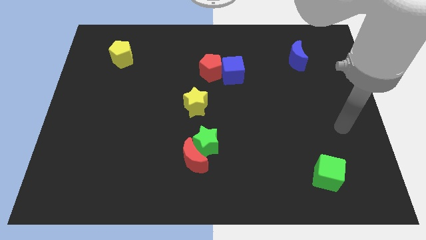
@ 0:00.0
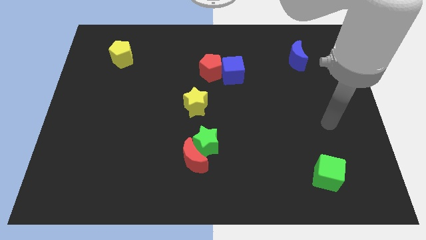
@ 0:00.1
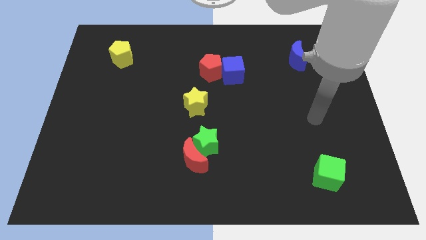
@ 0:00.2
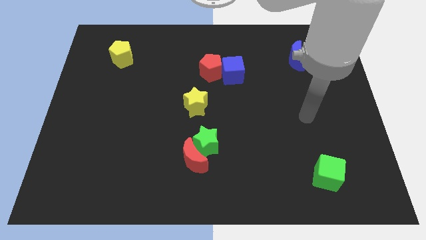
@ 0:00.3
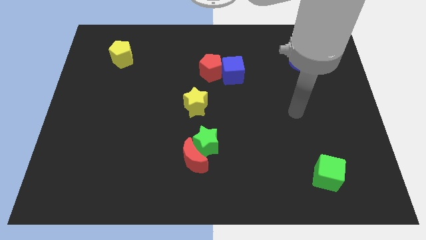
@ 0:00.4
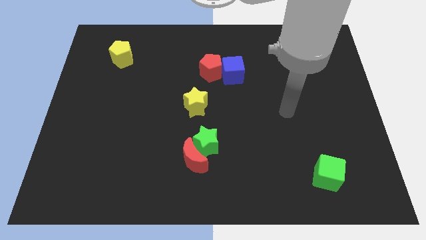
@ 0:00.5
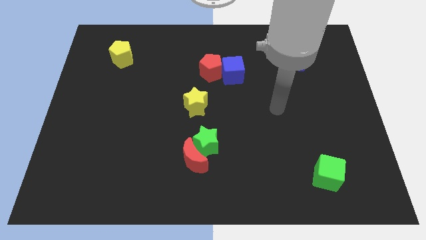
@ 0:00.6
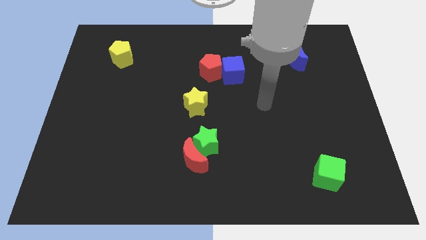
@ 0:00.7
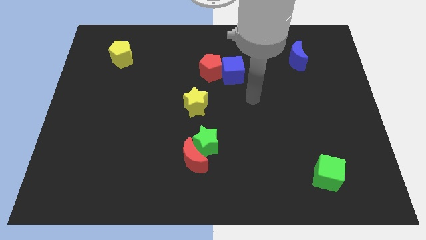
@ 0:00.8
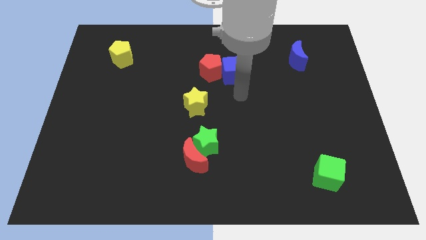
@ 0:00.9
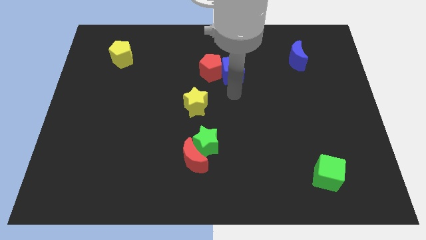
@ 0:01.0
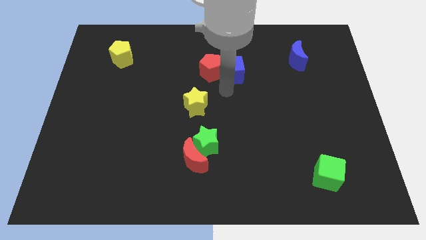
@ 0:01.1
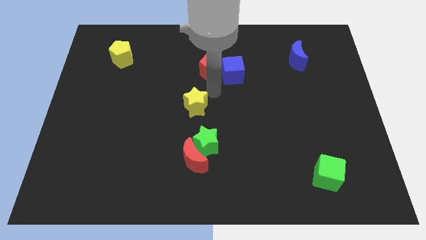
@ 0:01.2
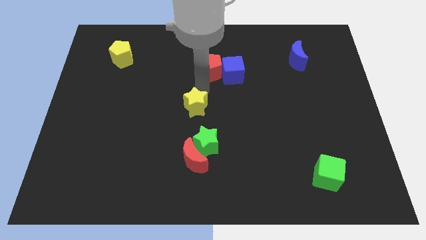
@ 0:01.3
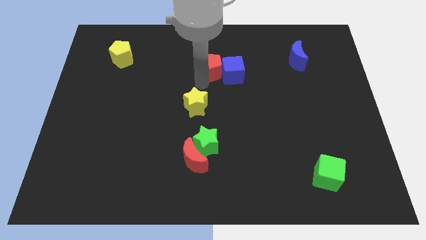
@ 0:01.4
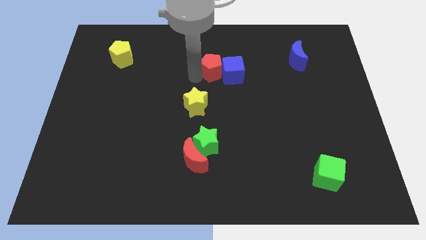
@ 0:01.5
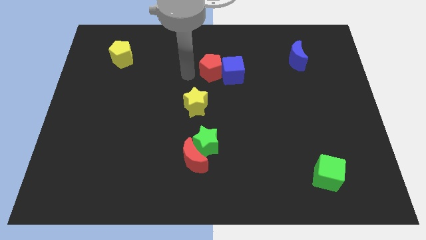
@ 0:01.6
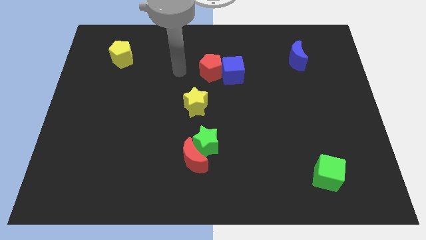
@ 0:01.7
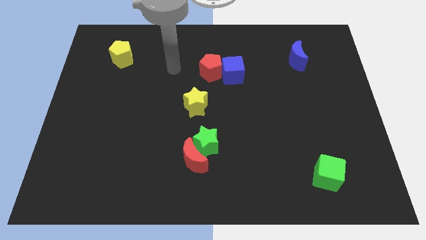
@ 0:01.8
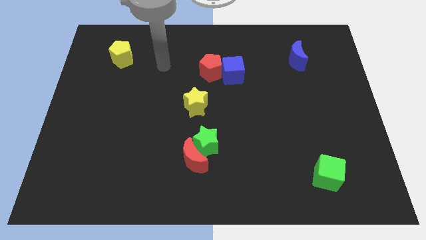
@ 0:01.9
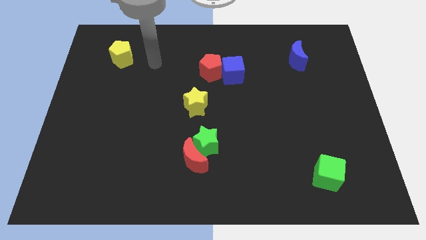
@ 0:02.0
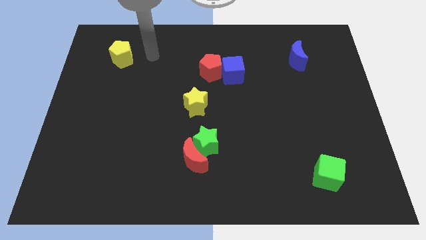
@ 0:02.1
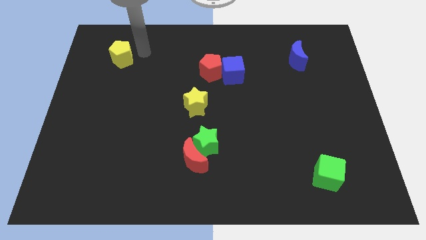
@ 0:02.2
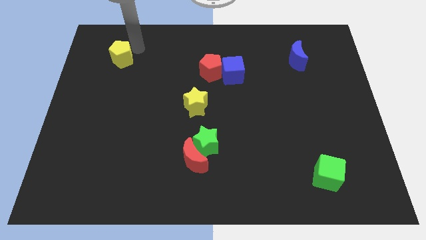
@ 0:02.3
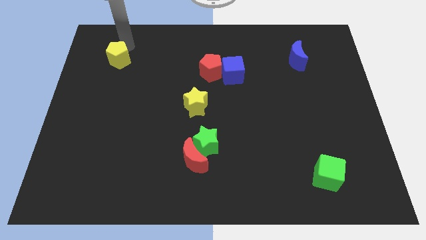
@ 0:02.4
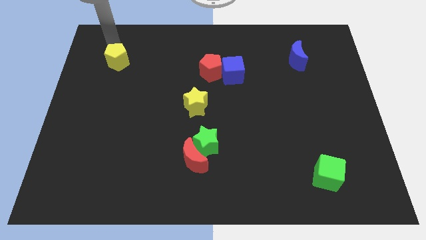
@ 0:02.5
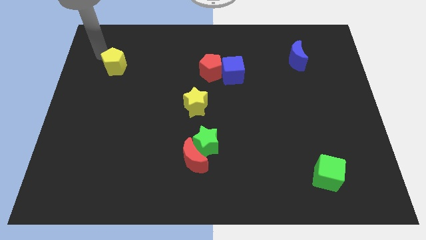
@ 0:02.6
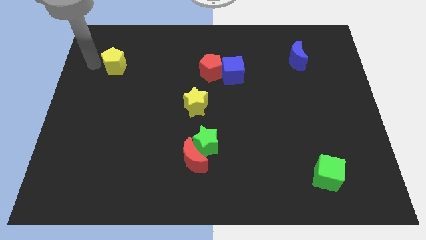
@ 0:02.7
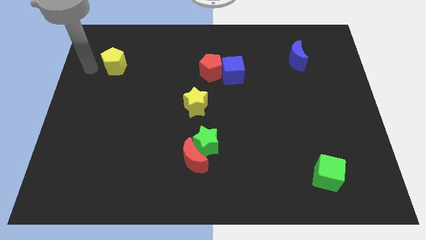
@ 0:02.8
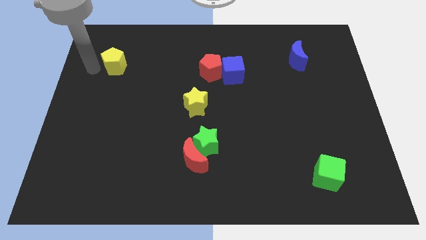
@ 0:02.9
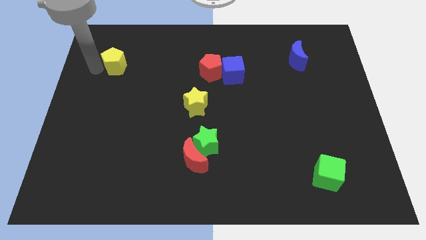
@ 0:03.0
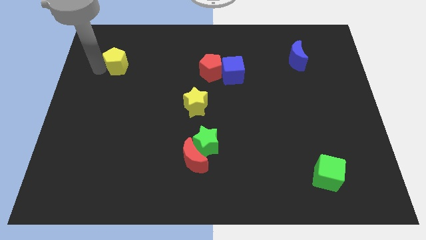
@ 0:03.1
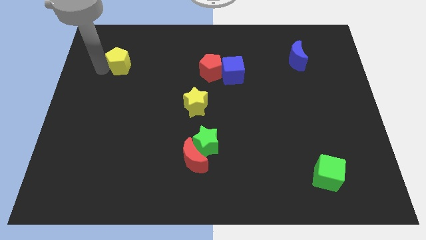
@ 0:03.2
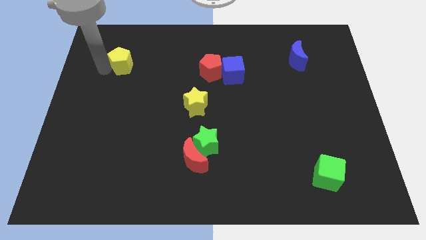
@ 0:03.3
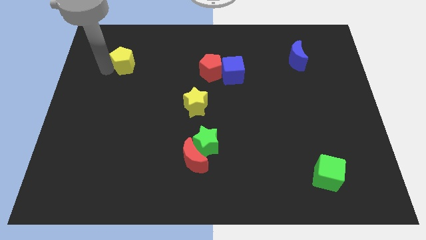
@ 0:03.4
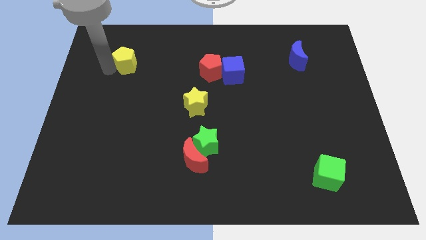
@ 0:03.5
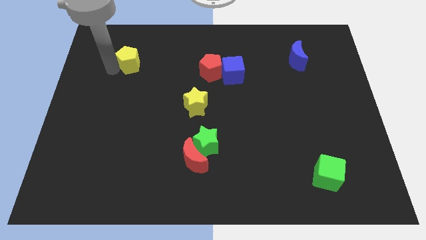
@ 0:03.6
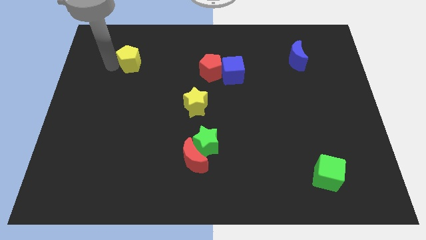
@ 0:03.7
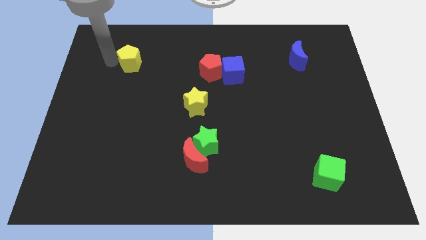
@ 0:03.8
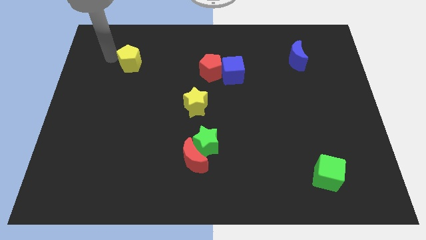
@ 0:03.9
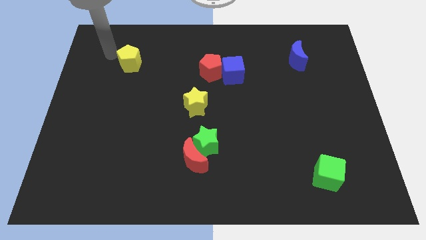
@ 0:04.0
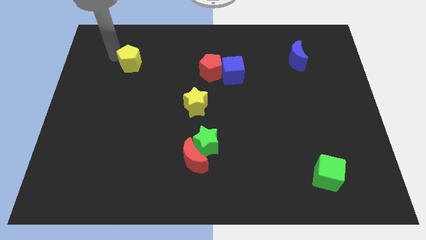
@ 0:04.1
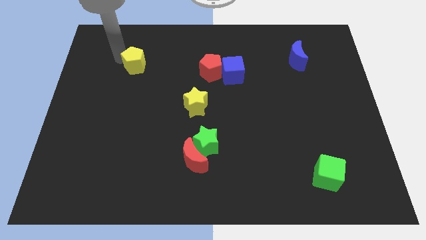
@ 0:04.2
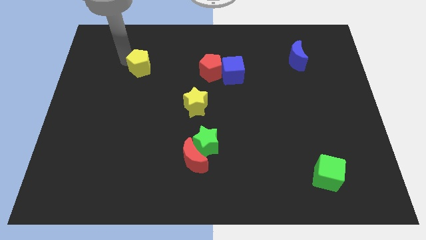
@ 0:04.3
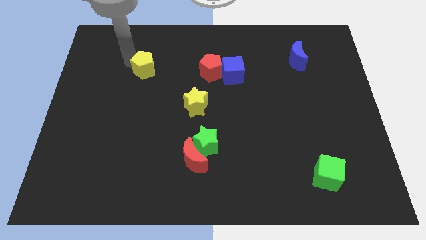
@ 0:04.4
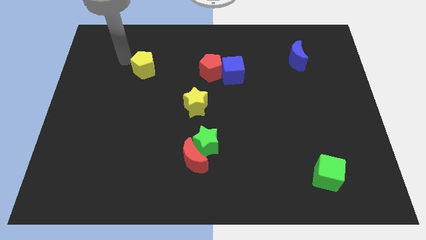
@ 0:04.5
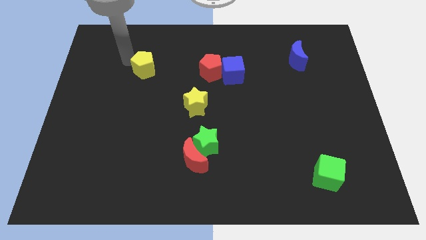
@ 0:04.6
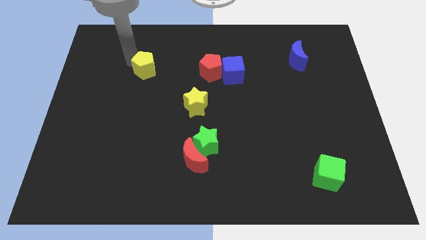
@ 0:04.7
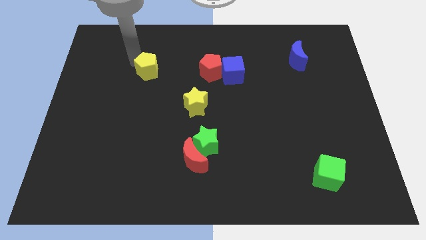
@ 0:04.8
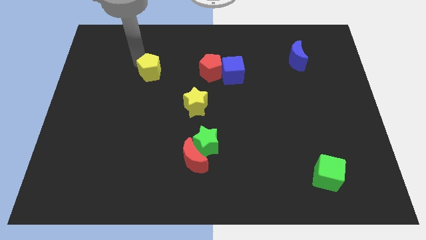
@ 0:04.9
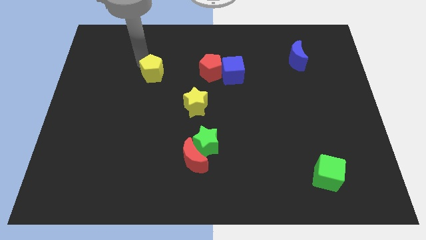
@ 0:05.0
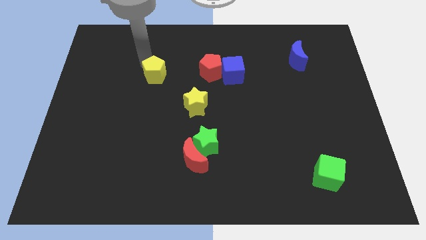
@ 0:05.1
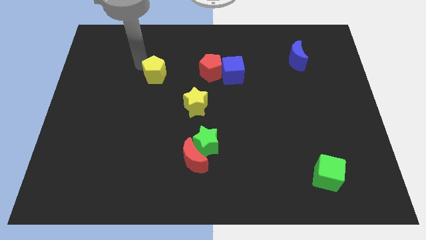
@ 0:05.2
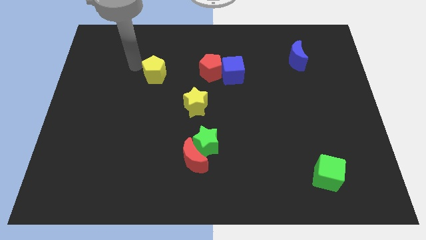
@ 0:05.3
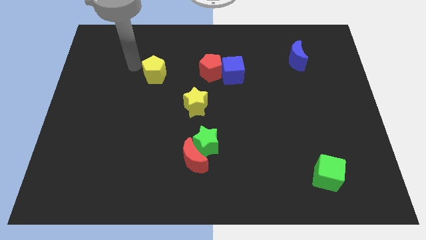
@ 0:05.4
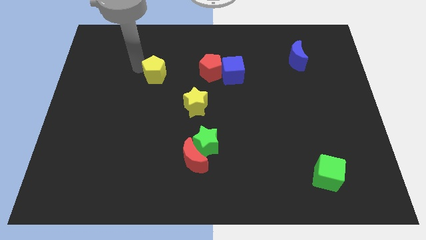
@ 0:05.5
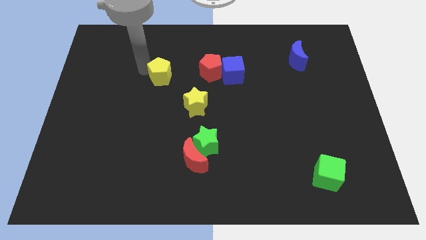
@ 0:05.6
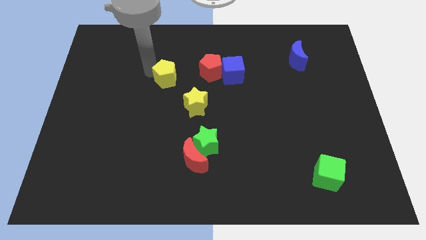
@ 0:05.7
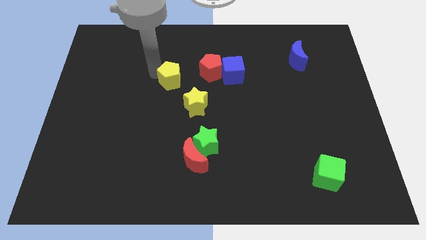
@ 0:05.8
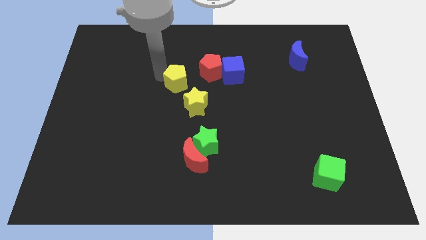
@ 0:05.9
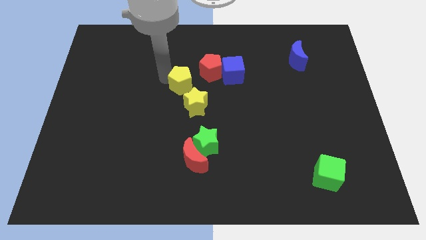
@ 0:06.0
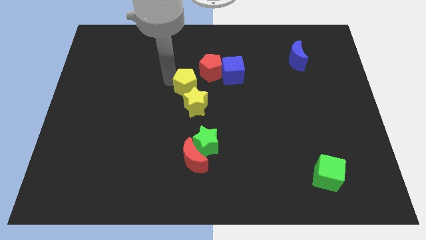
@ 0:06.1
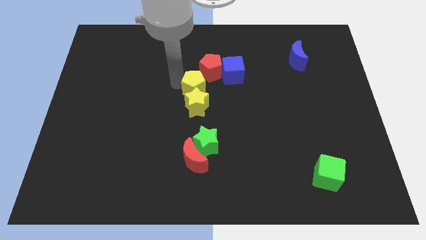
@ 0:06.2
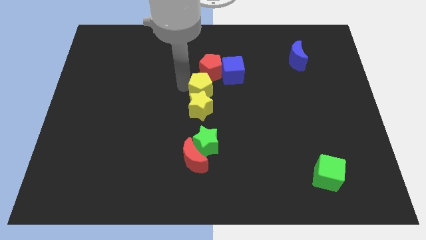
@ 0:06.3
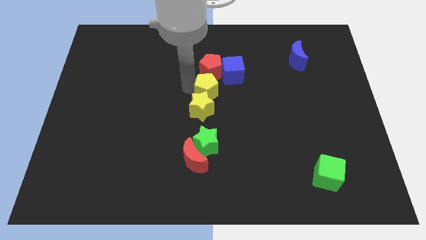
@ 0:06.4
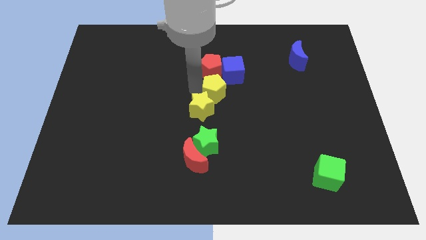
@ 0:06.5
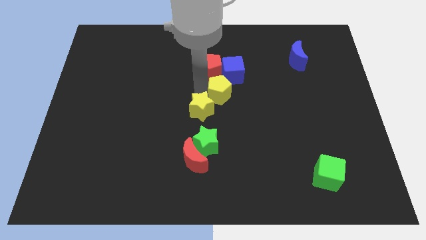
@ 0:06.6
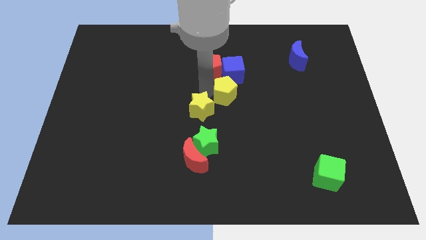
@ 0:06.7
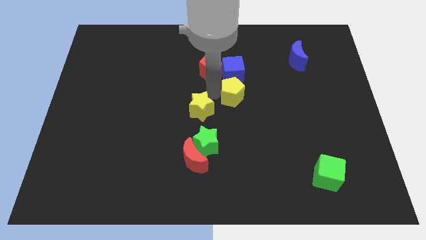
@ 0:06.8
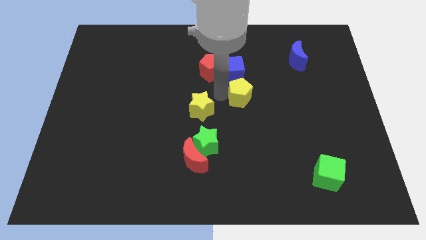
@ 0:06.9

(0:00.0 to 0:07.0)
move the yellow pentagon diagonally down and to the right of the blue cube

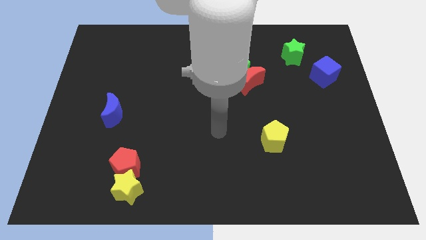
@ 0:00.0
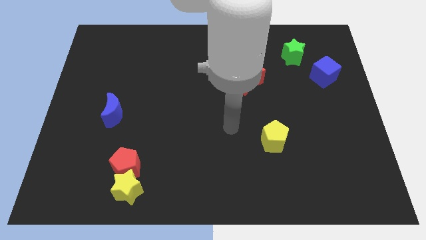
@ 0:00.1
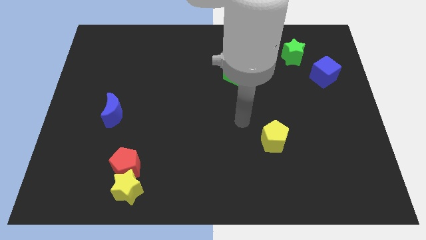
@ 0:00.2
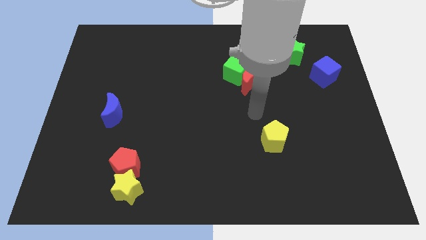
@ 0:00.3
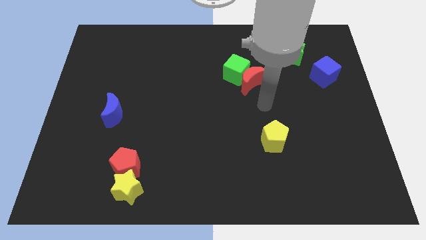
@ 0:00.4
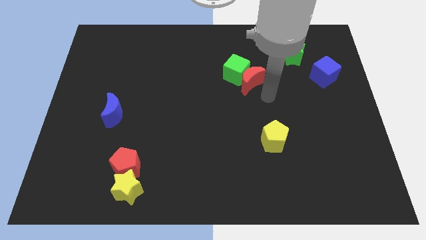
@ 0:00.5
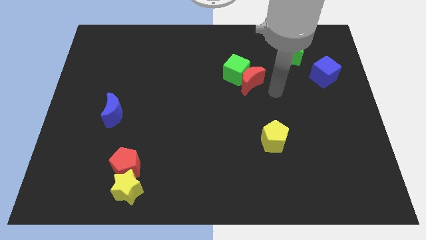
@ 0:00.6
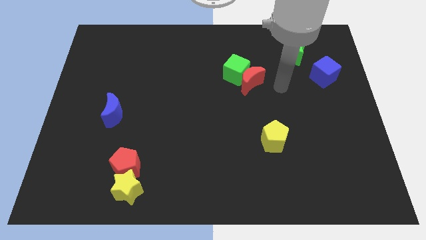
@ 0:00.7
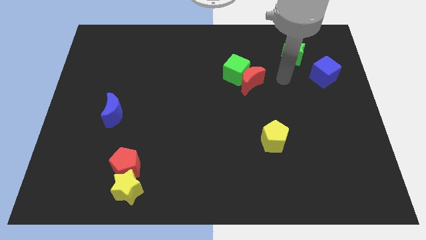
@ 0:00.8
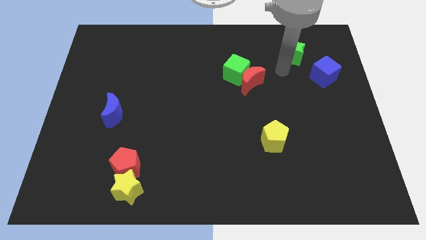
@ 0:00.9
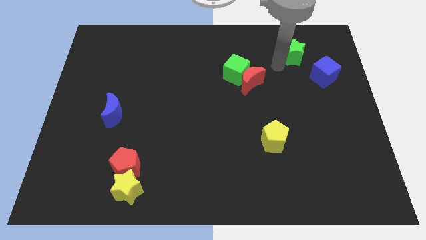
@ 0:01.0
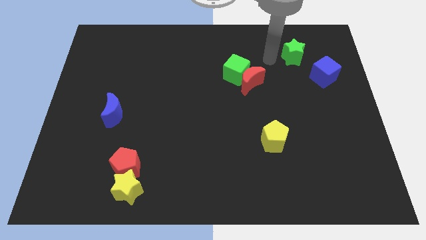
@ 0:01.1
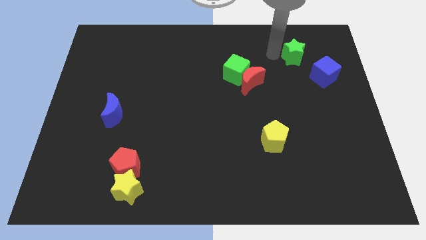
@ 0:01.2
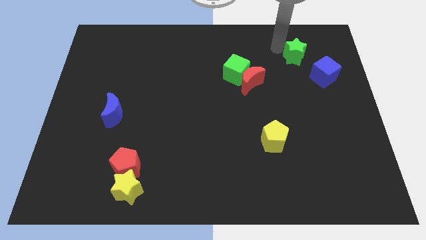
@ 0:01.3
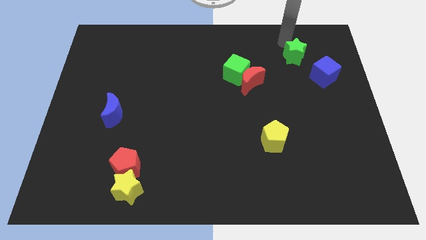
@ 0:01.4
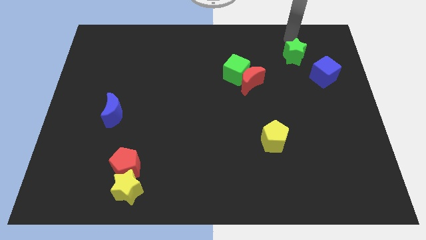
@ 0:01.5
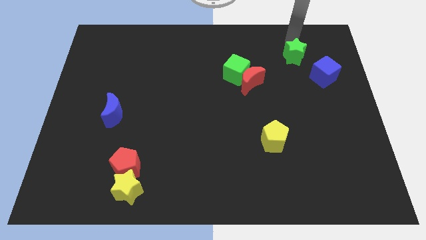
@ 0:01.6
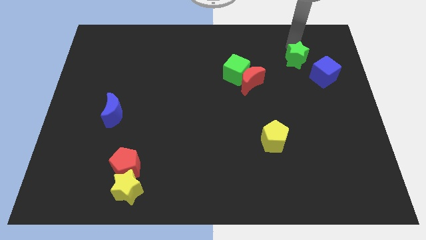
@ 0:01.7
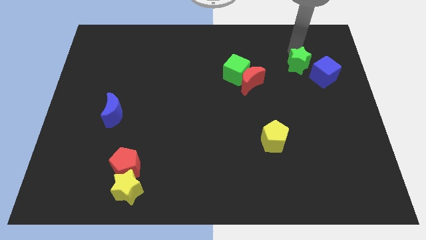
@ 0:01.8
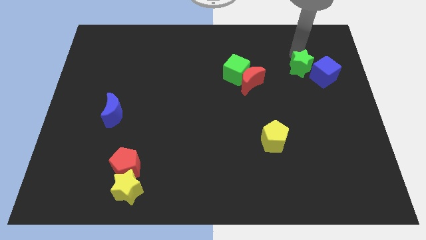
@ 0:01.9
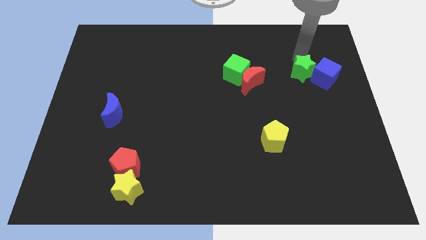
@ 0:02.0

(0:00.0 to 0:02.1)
put the green star to the right side of the red moon
